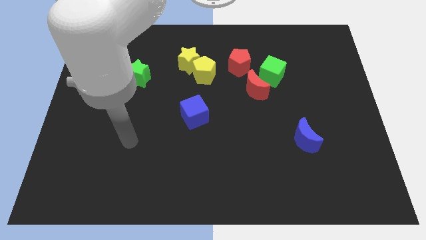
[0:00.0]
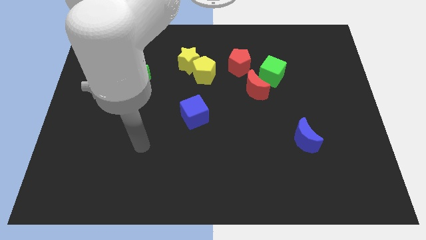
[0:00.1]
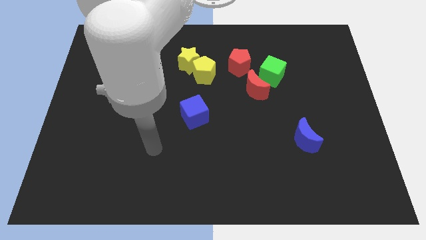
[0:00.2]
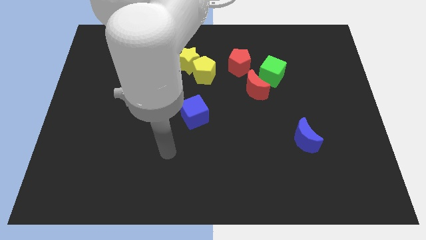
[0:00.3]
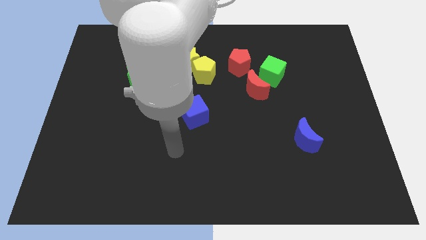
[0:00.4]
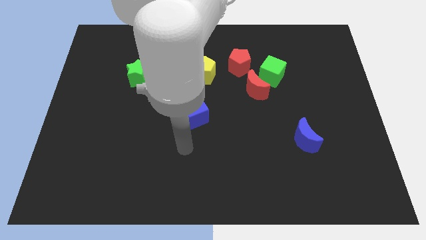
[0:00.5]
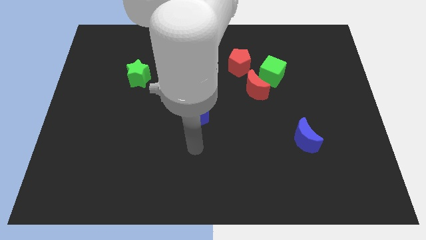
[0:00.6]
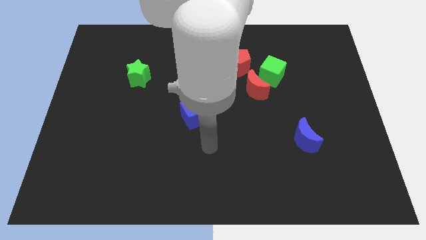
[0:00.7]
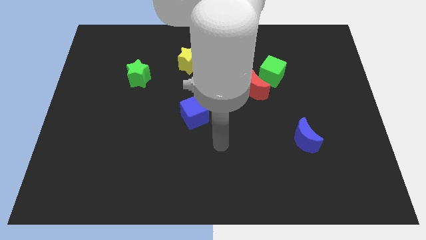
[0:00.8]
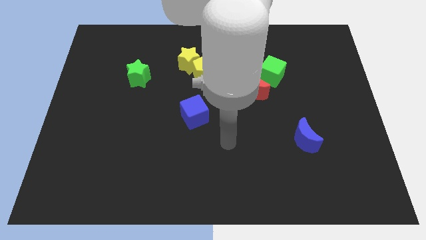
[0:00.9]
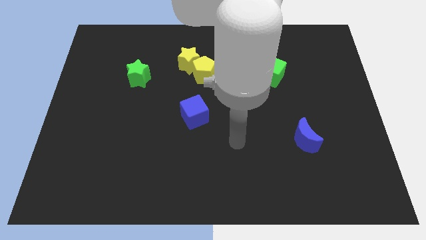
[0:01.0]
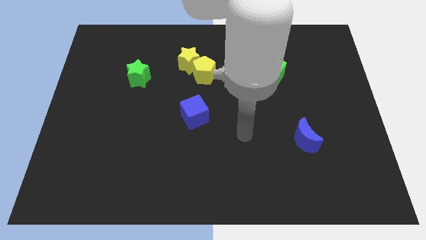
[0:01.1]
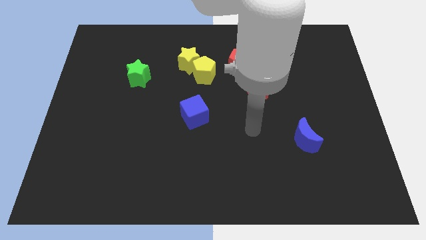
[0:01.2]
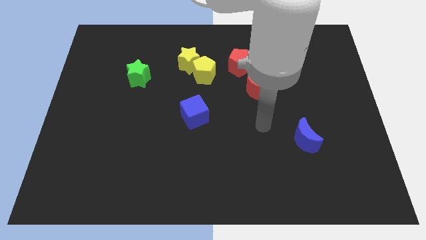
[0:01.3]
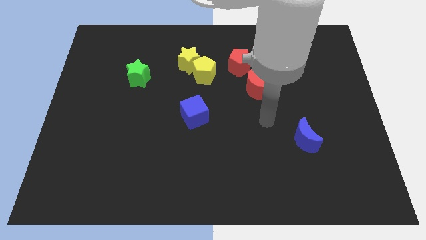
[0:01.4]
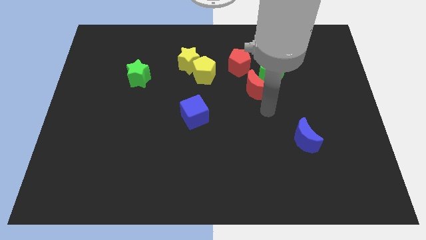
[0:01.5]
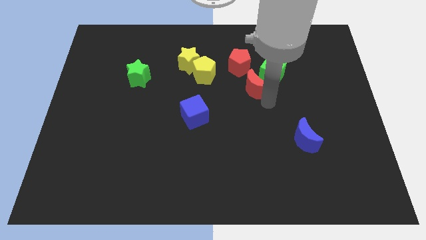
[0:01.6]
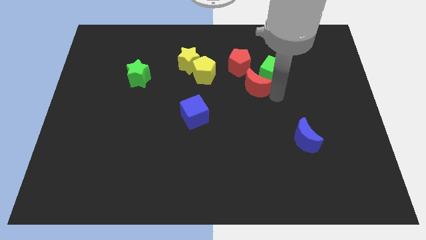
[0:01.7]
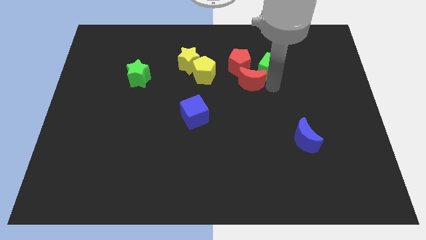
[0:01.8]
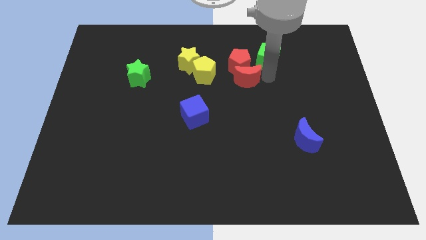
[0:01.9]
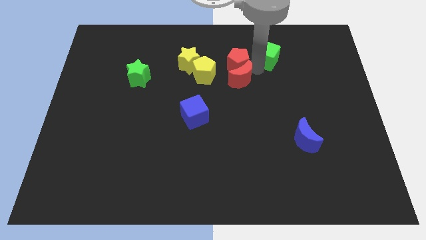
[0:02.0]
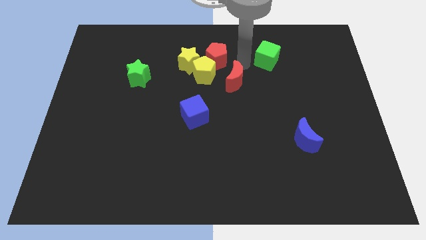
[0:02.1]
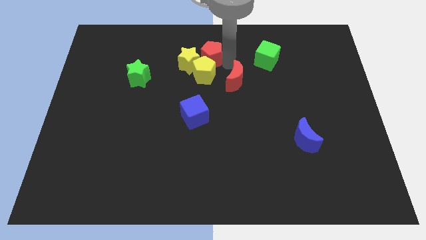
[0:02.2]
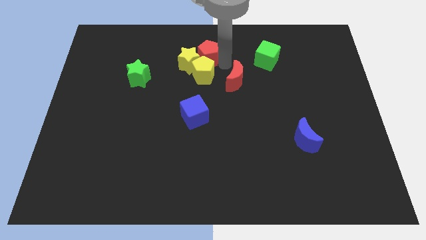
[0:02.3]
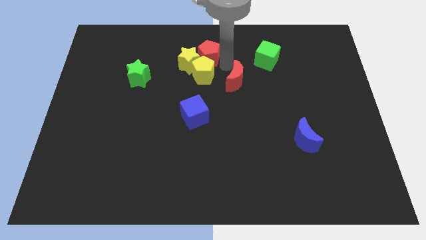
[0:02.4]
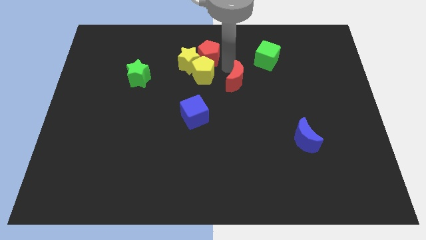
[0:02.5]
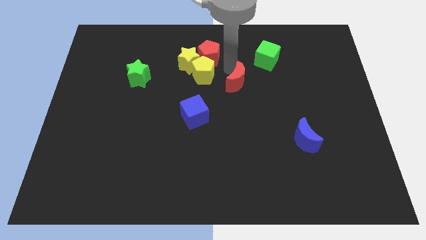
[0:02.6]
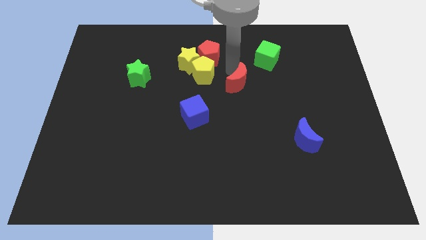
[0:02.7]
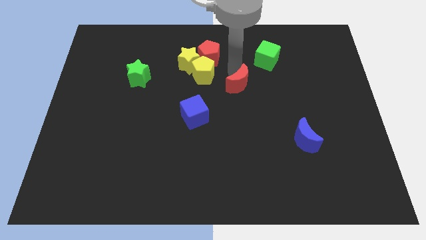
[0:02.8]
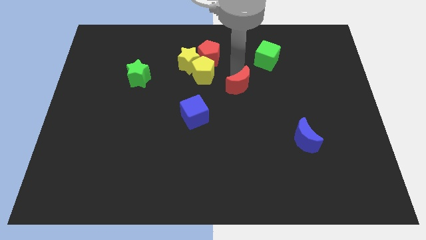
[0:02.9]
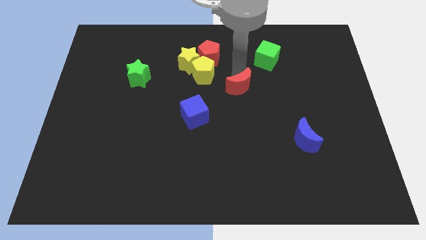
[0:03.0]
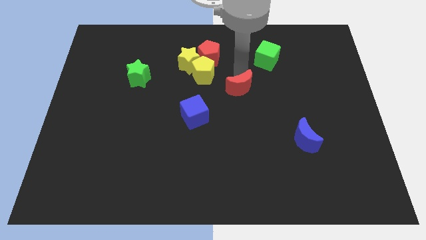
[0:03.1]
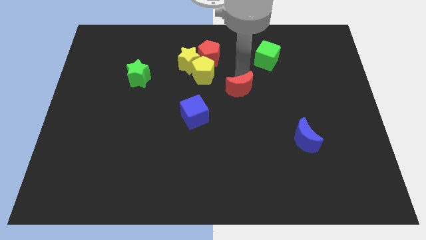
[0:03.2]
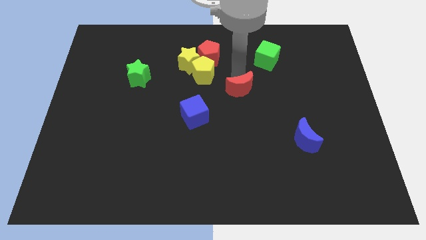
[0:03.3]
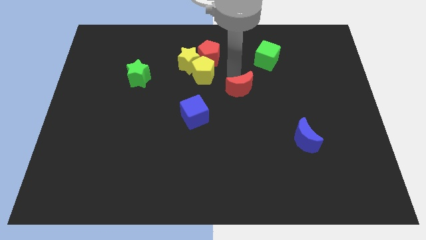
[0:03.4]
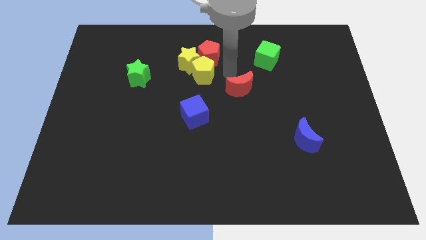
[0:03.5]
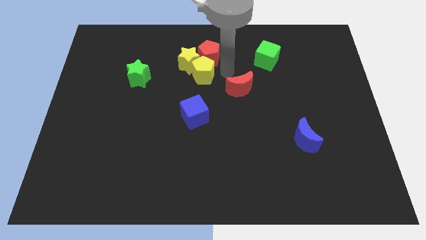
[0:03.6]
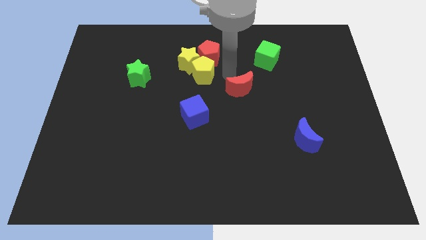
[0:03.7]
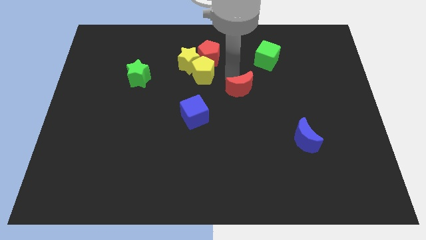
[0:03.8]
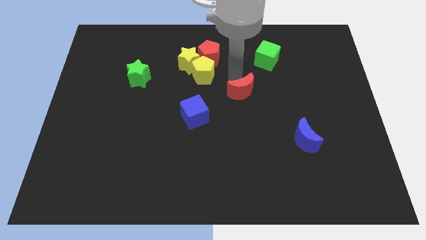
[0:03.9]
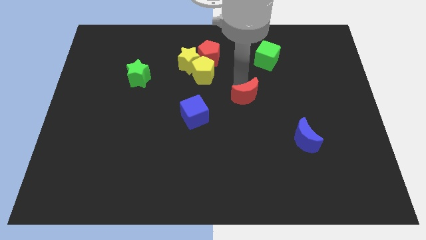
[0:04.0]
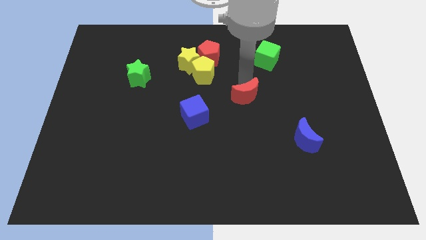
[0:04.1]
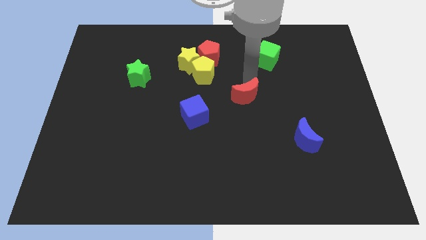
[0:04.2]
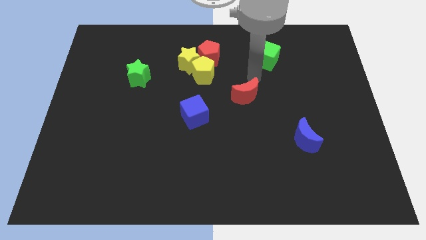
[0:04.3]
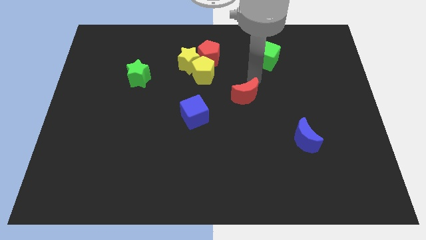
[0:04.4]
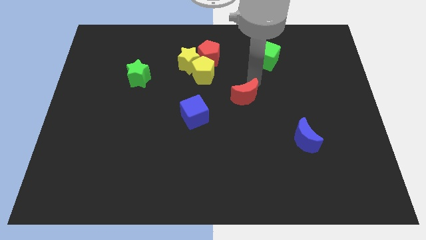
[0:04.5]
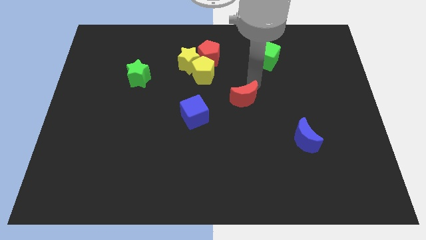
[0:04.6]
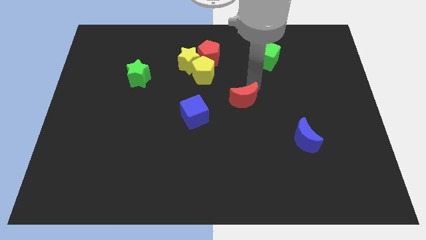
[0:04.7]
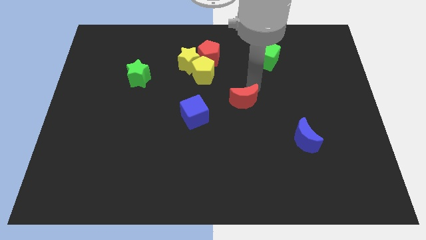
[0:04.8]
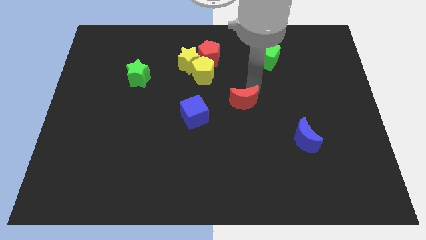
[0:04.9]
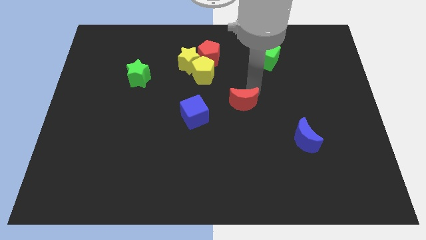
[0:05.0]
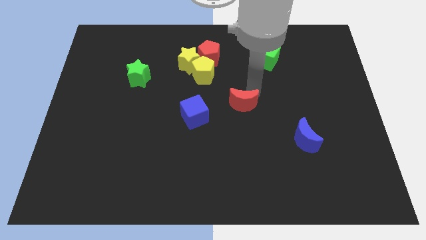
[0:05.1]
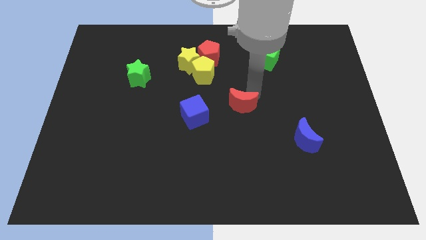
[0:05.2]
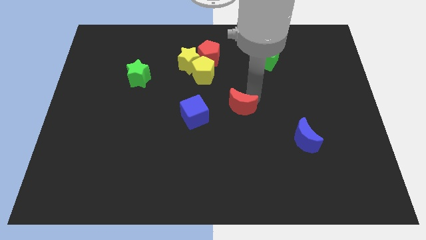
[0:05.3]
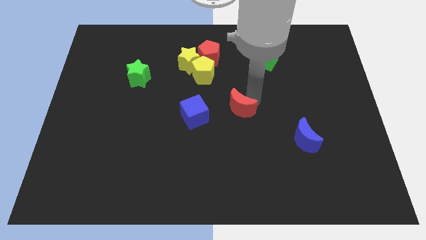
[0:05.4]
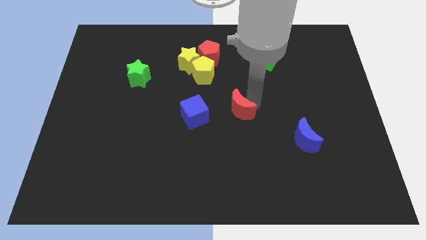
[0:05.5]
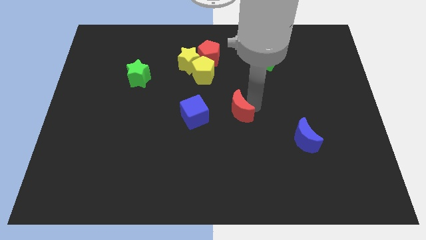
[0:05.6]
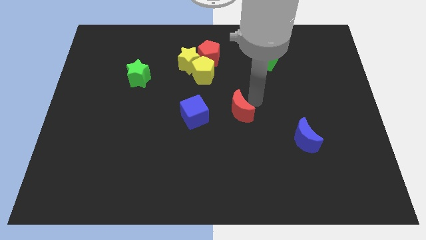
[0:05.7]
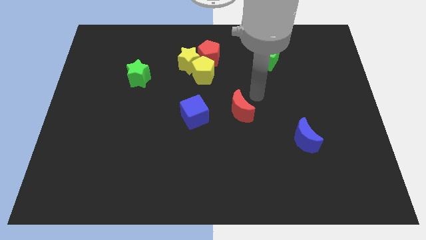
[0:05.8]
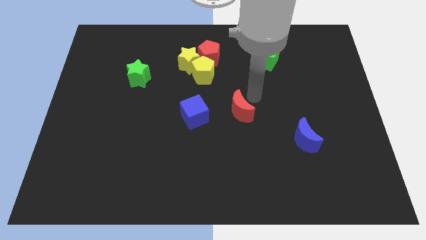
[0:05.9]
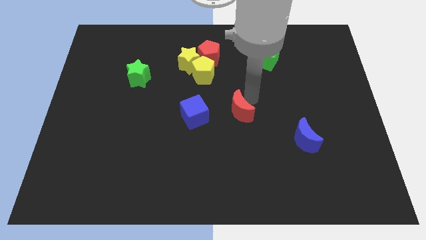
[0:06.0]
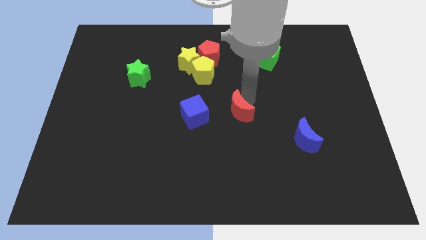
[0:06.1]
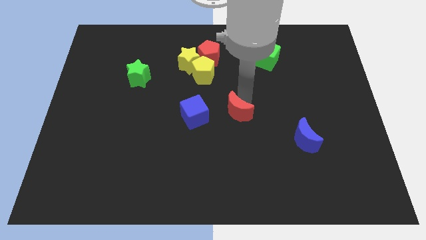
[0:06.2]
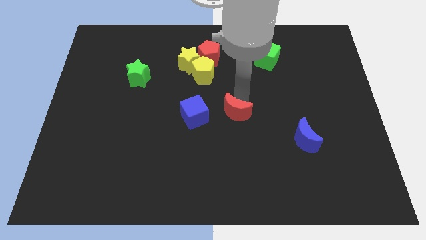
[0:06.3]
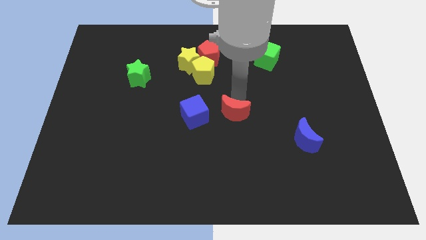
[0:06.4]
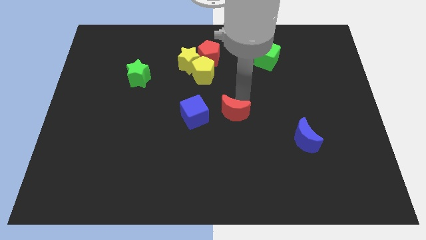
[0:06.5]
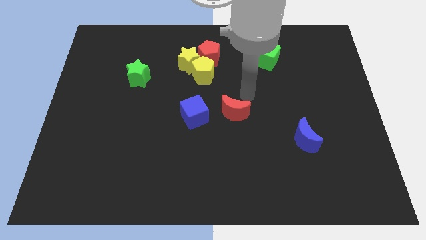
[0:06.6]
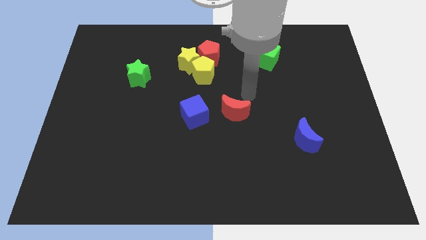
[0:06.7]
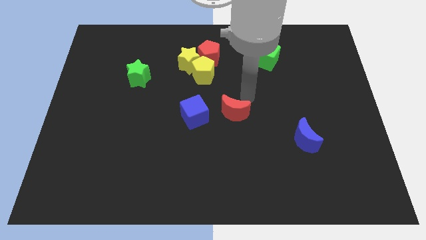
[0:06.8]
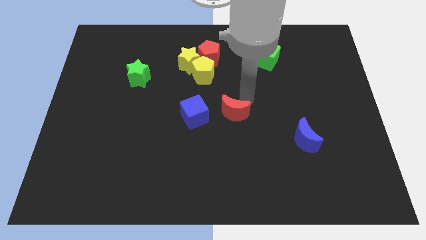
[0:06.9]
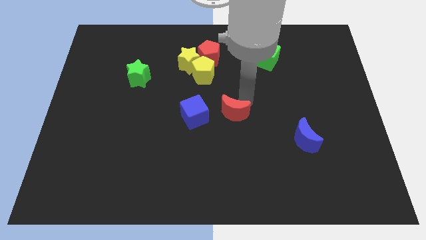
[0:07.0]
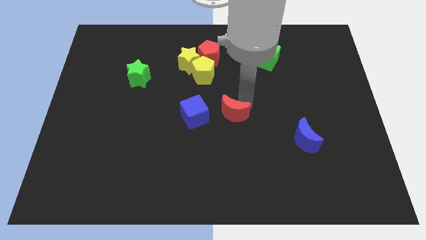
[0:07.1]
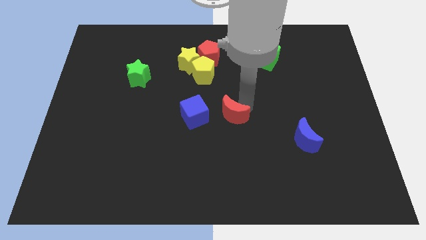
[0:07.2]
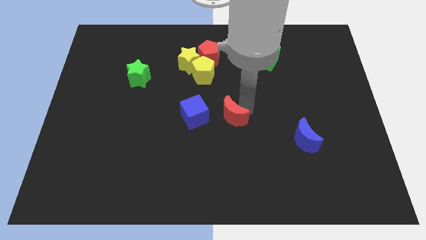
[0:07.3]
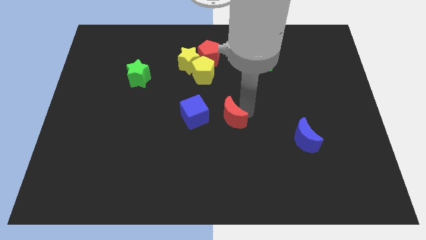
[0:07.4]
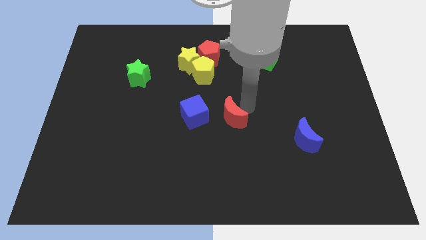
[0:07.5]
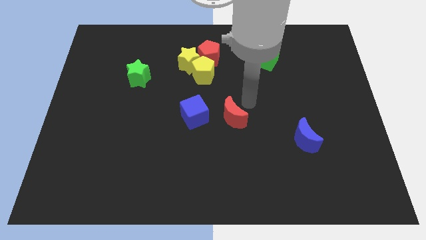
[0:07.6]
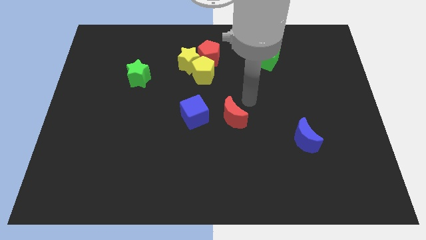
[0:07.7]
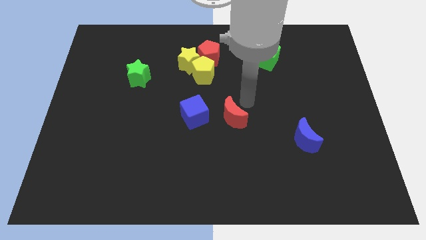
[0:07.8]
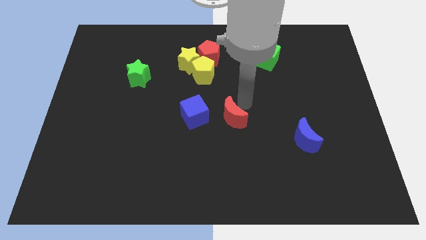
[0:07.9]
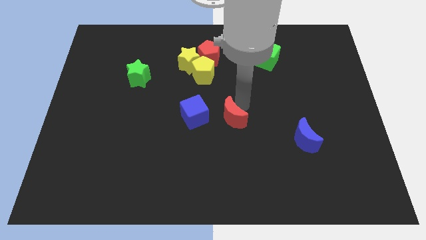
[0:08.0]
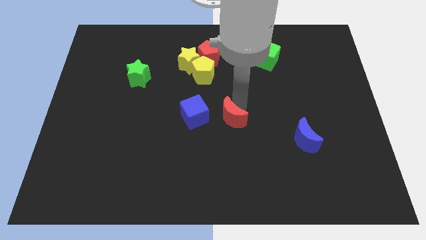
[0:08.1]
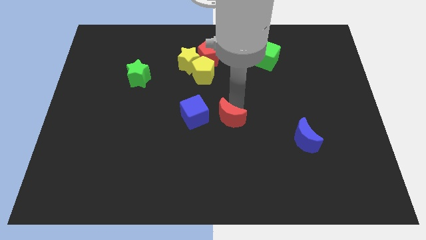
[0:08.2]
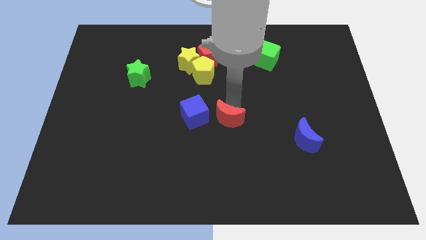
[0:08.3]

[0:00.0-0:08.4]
slide the red moon to the bottom right side of the blue cube
